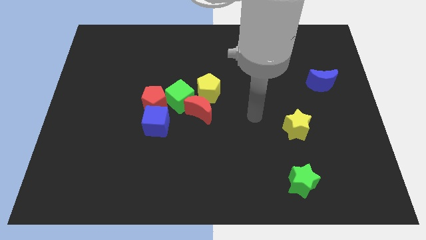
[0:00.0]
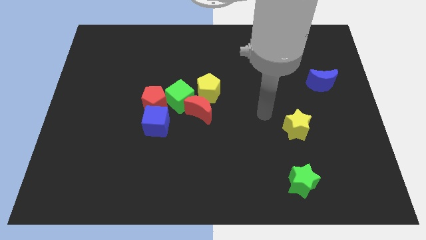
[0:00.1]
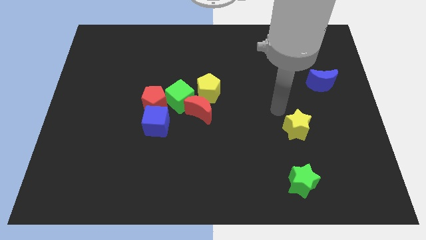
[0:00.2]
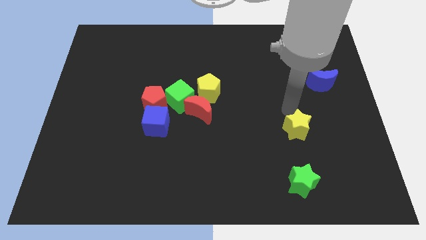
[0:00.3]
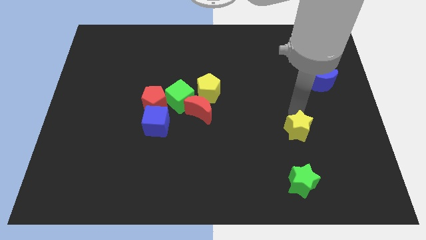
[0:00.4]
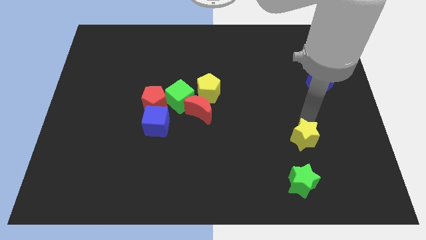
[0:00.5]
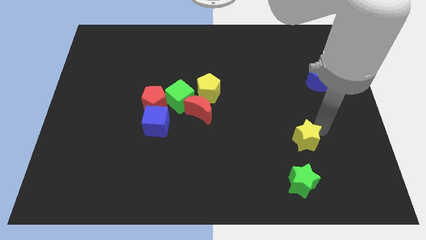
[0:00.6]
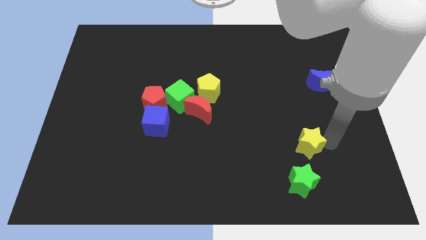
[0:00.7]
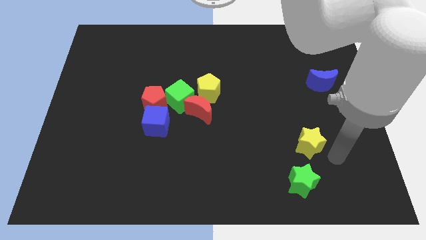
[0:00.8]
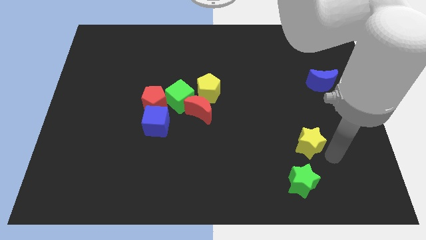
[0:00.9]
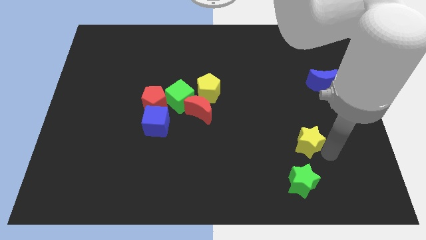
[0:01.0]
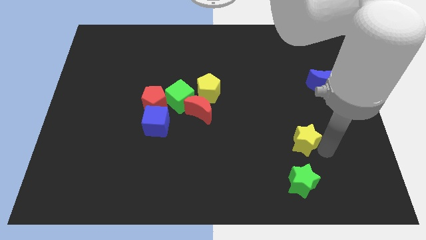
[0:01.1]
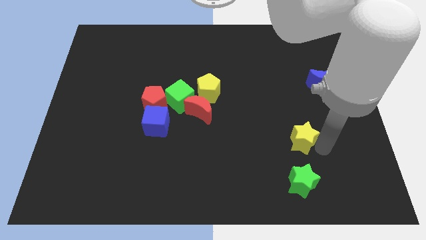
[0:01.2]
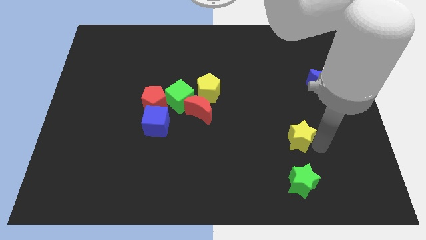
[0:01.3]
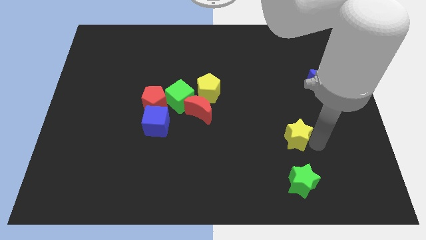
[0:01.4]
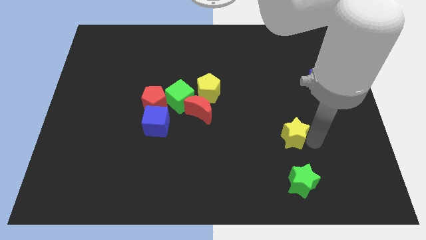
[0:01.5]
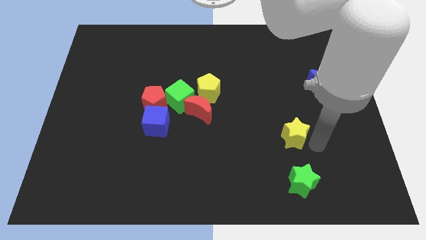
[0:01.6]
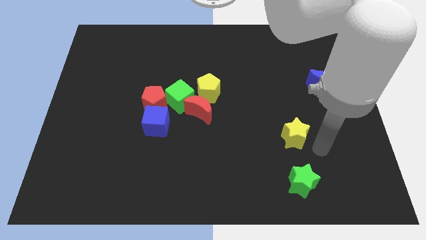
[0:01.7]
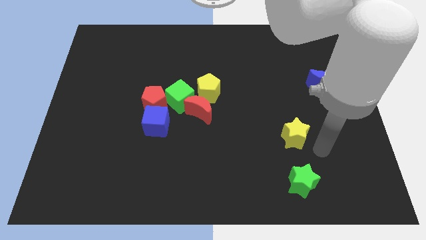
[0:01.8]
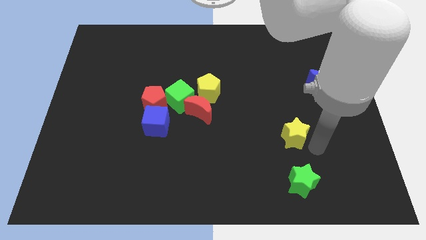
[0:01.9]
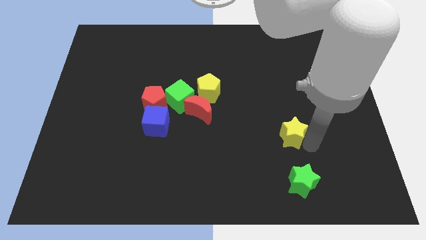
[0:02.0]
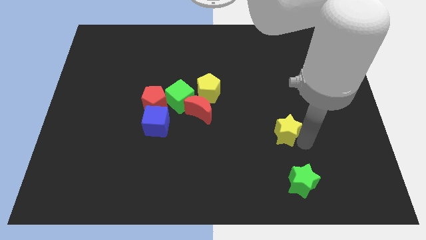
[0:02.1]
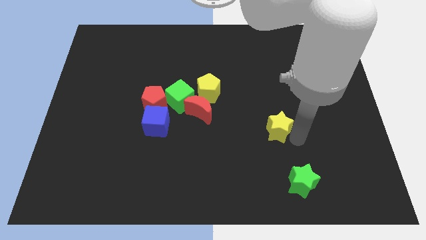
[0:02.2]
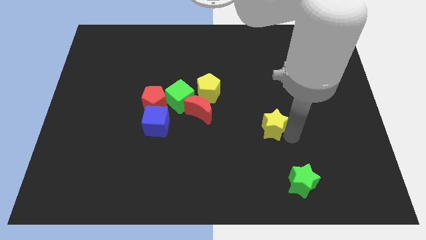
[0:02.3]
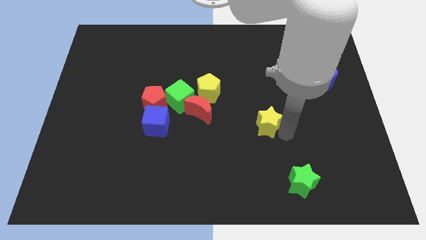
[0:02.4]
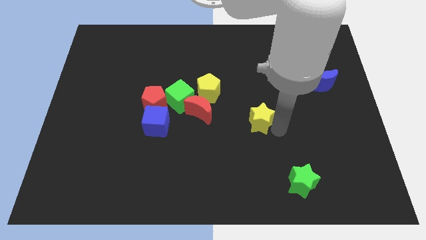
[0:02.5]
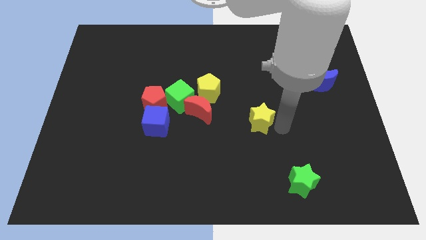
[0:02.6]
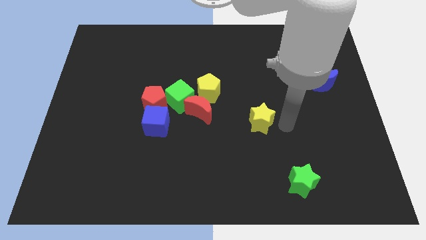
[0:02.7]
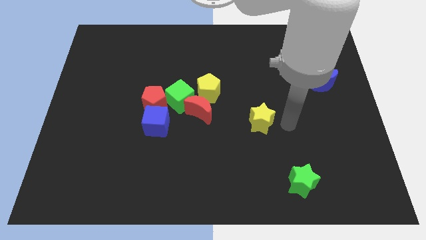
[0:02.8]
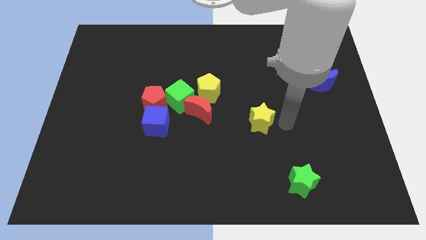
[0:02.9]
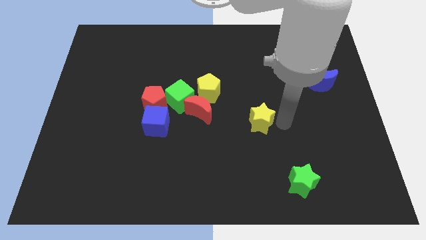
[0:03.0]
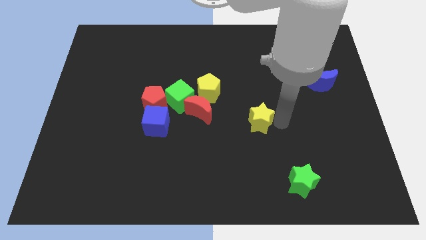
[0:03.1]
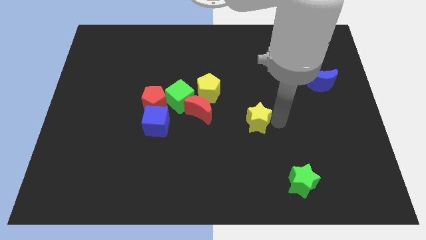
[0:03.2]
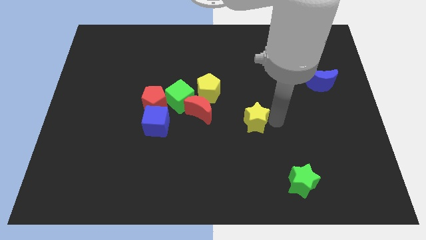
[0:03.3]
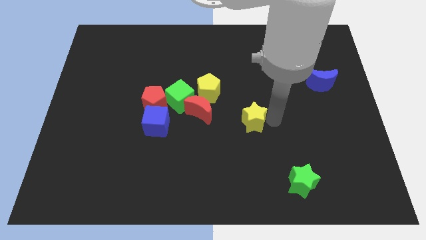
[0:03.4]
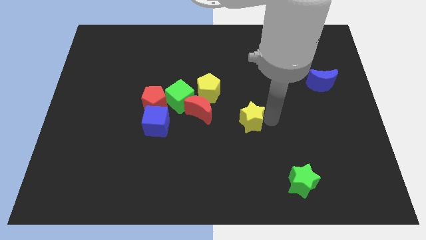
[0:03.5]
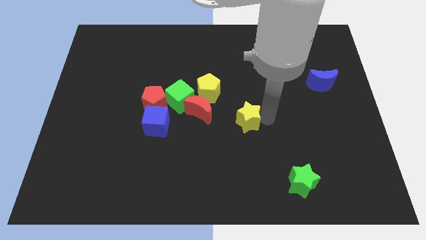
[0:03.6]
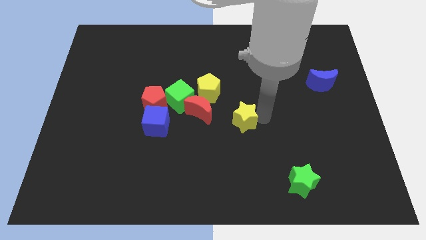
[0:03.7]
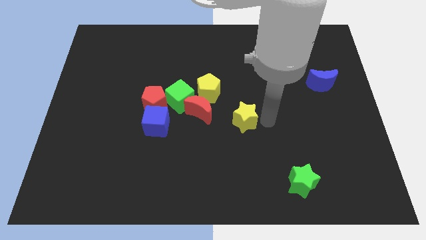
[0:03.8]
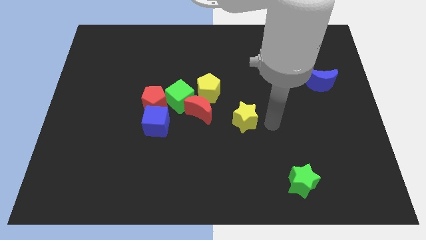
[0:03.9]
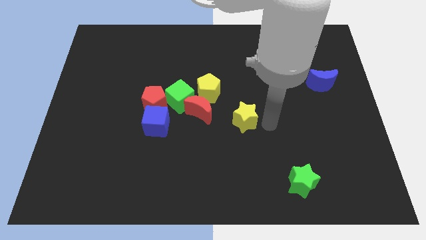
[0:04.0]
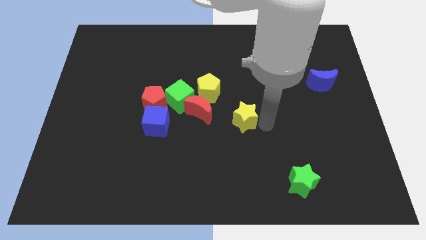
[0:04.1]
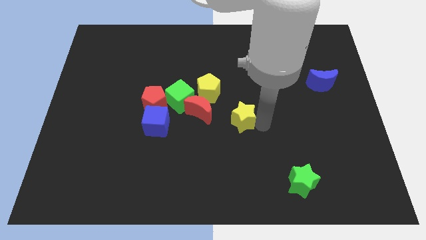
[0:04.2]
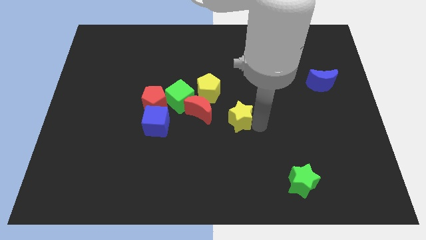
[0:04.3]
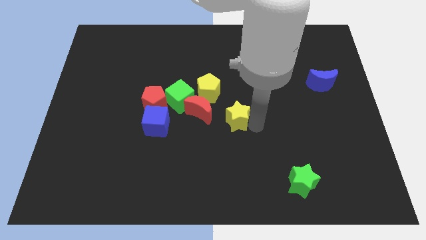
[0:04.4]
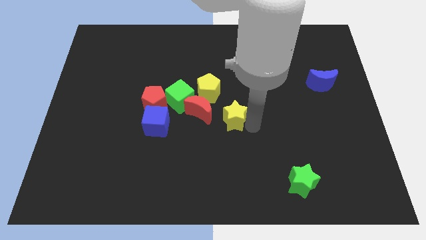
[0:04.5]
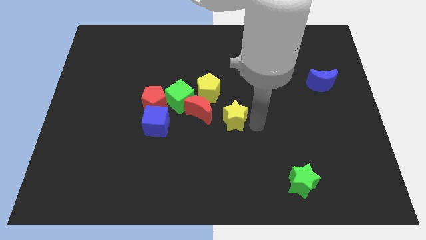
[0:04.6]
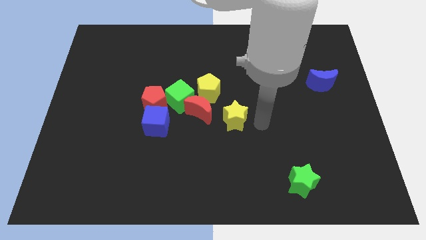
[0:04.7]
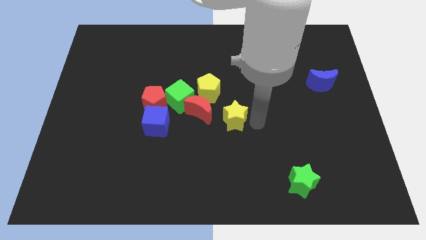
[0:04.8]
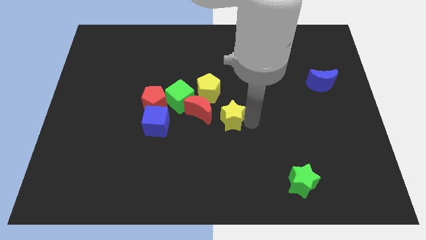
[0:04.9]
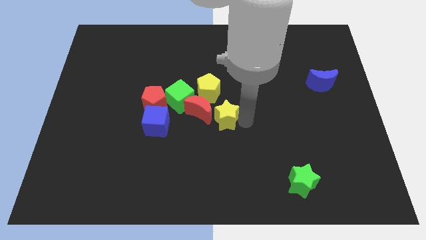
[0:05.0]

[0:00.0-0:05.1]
put the yellow star to the red moon

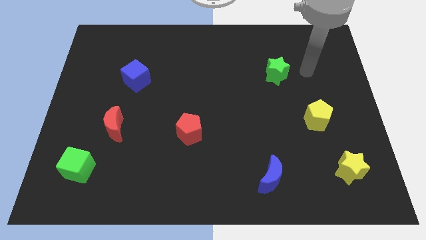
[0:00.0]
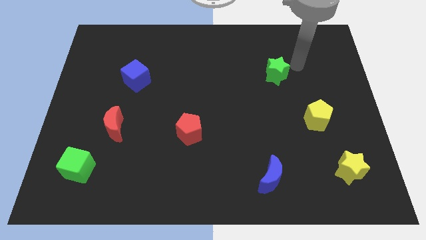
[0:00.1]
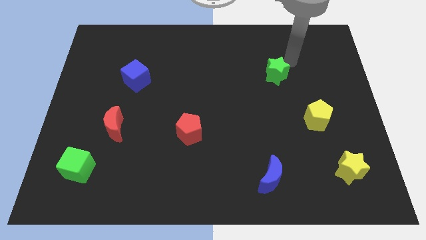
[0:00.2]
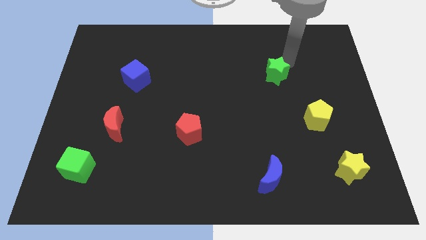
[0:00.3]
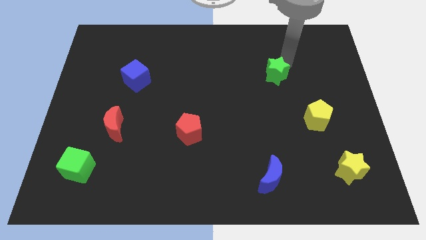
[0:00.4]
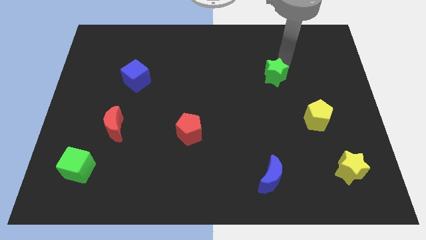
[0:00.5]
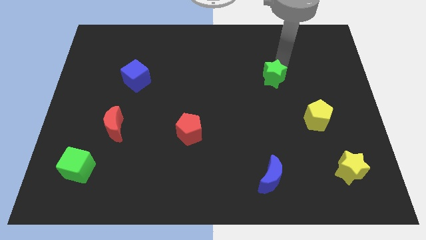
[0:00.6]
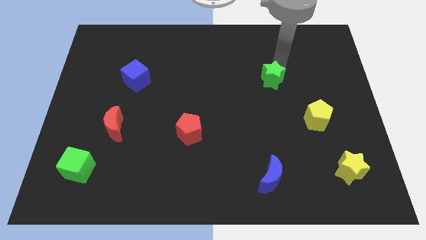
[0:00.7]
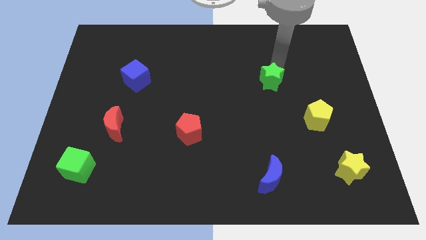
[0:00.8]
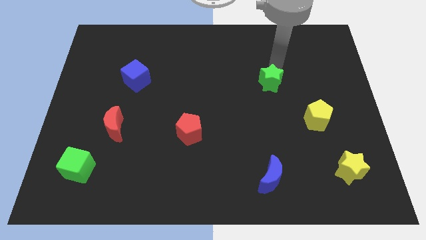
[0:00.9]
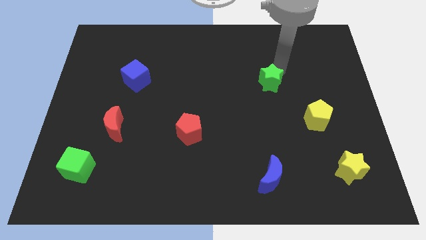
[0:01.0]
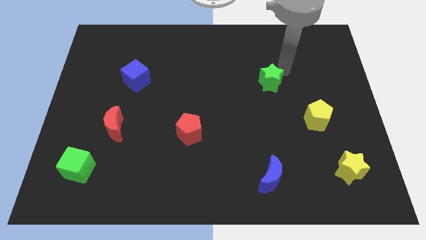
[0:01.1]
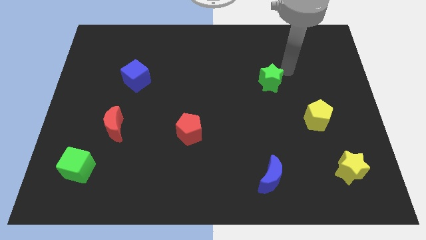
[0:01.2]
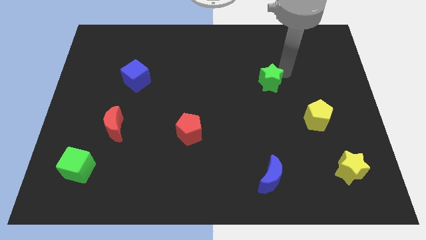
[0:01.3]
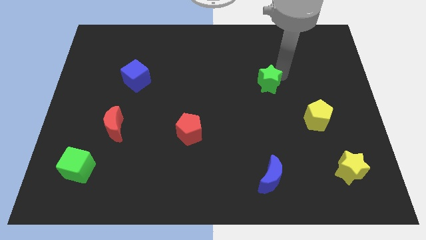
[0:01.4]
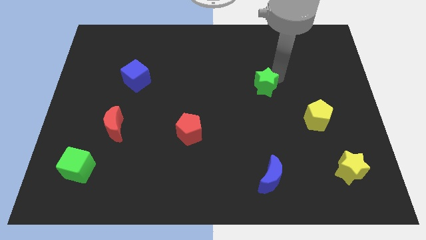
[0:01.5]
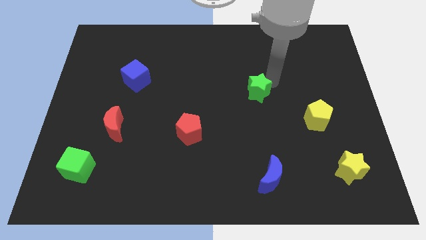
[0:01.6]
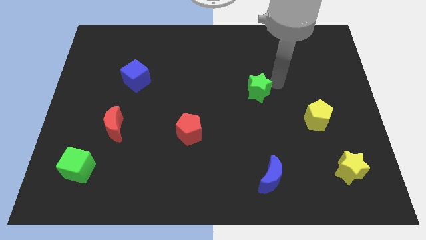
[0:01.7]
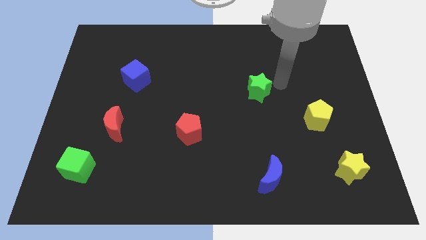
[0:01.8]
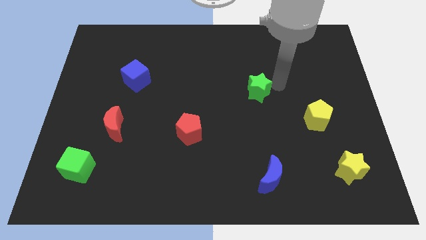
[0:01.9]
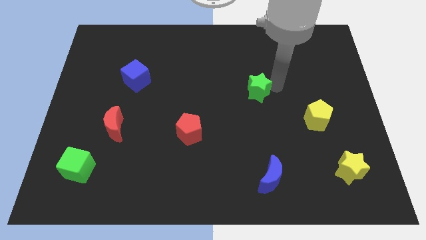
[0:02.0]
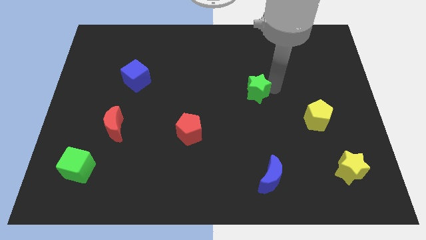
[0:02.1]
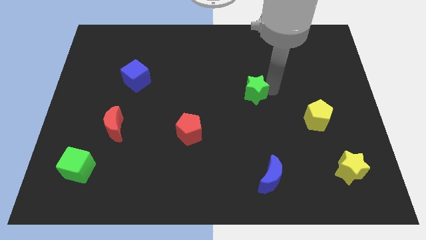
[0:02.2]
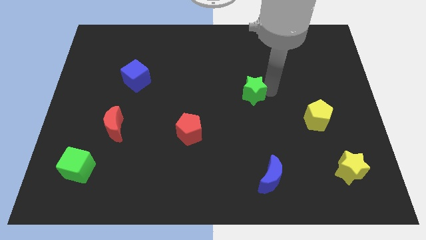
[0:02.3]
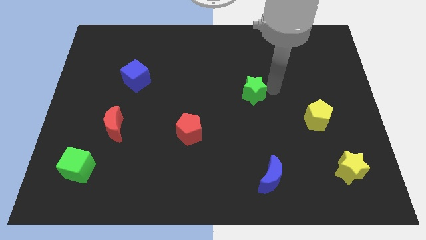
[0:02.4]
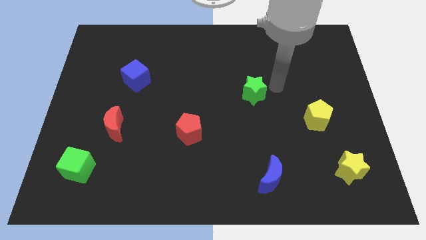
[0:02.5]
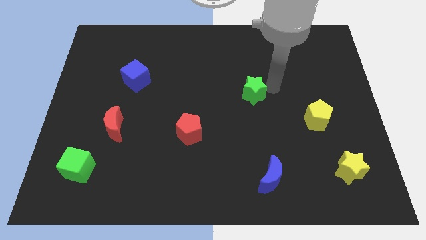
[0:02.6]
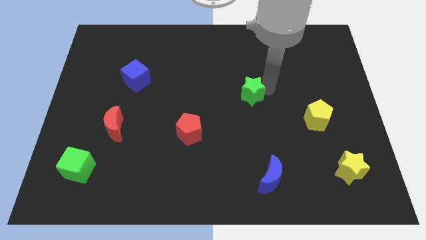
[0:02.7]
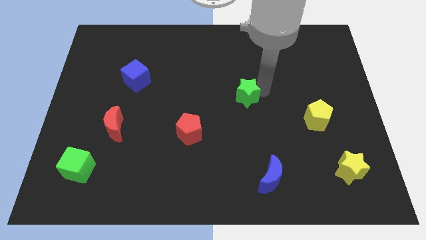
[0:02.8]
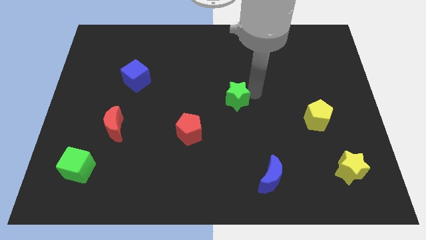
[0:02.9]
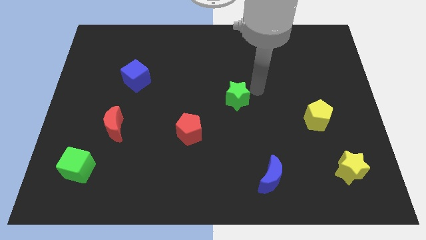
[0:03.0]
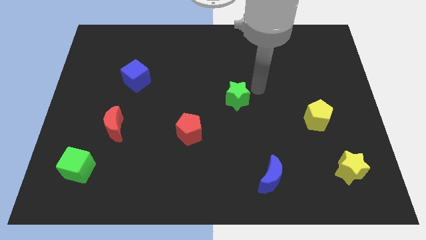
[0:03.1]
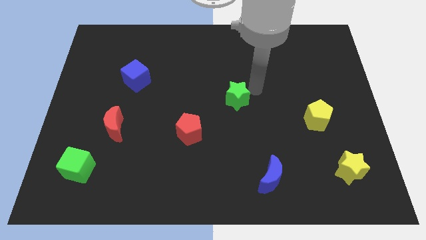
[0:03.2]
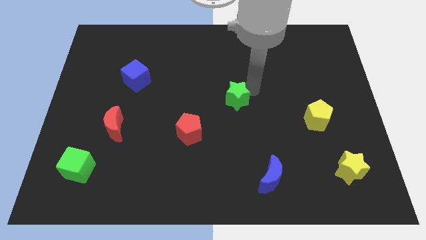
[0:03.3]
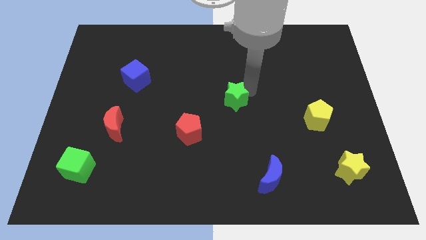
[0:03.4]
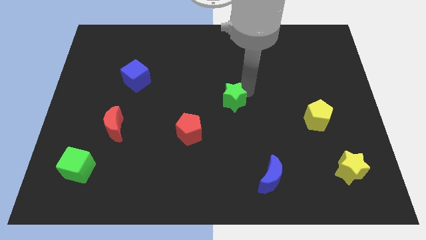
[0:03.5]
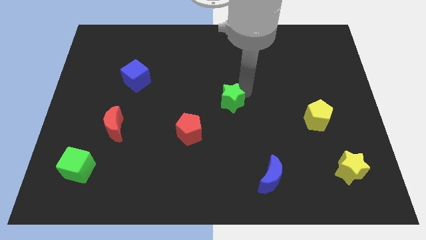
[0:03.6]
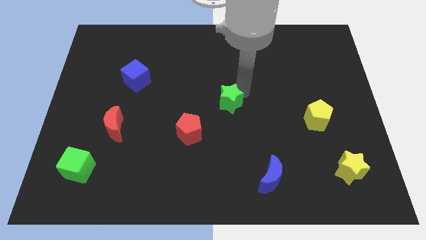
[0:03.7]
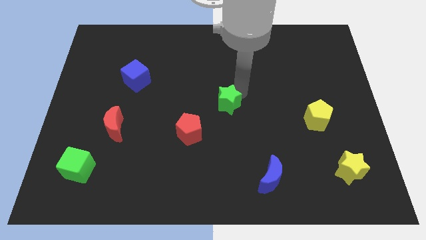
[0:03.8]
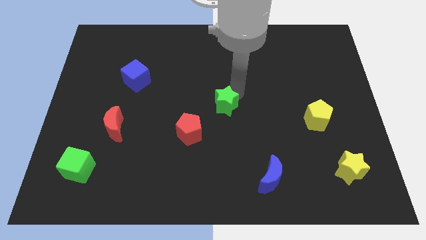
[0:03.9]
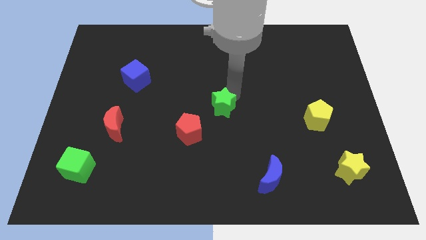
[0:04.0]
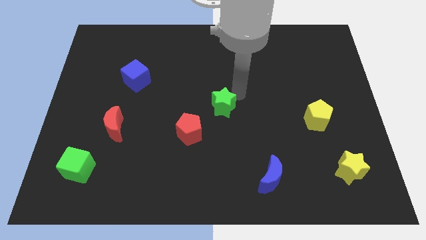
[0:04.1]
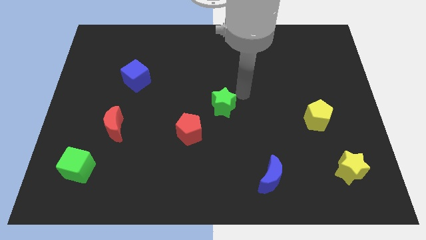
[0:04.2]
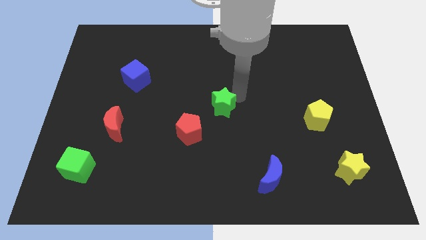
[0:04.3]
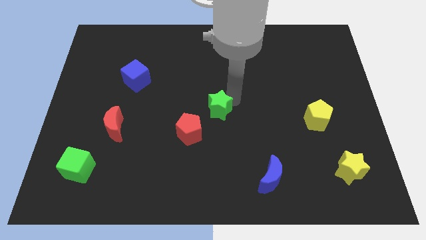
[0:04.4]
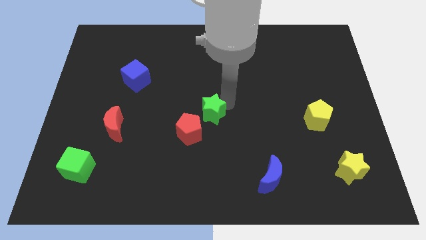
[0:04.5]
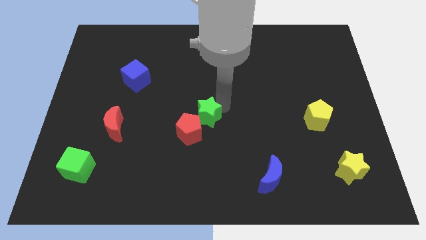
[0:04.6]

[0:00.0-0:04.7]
put the green star to the red pentagon
